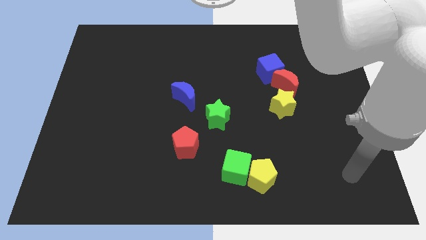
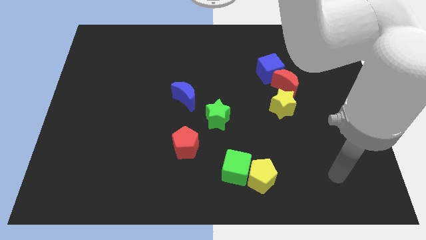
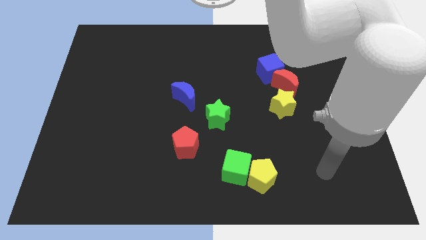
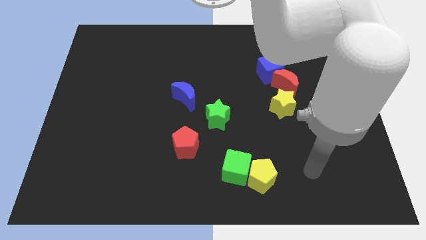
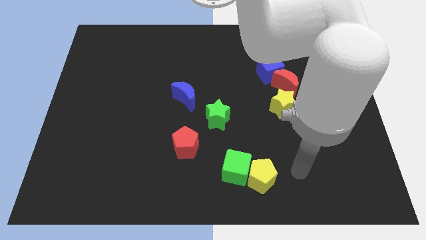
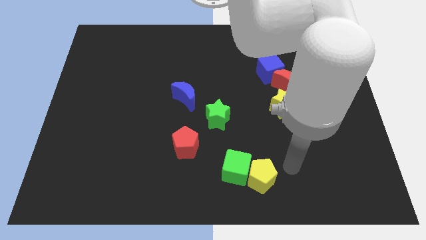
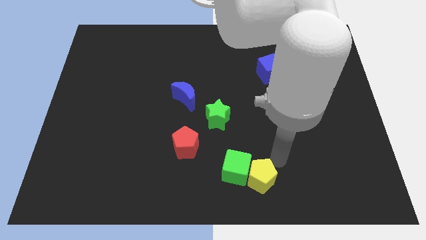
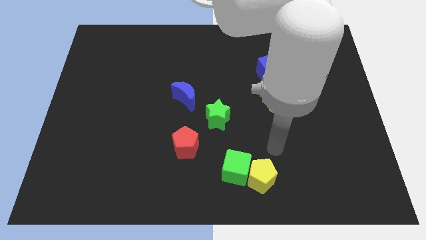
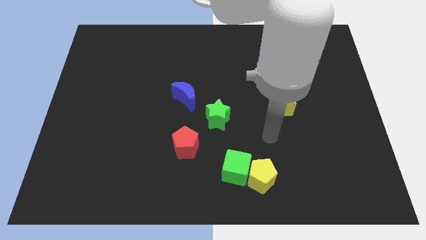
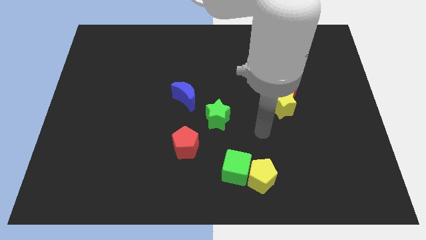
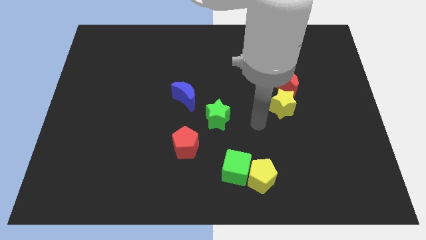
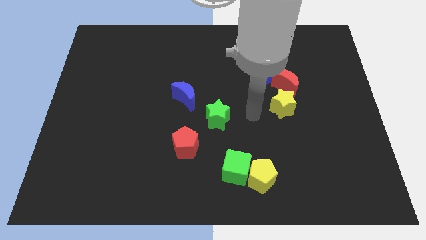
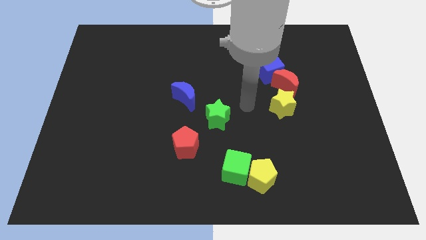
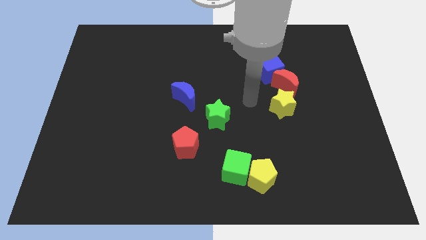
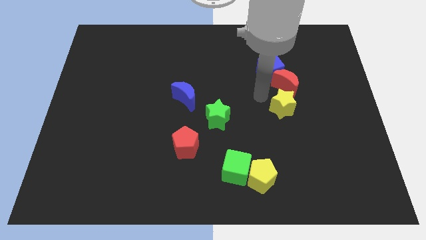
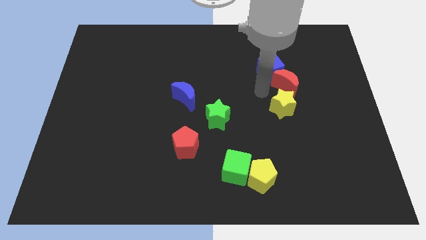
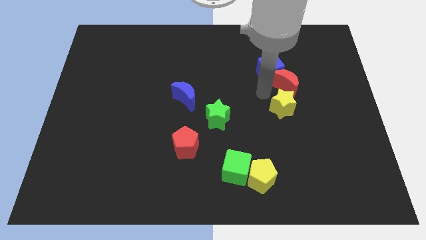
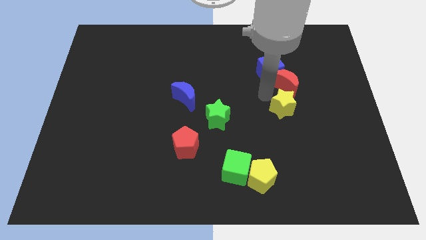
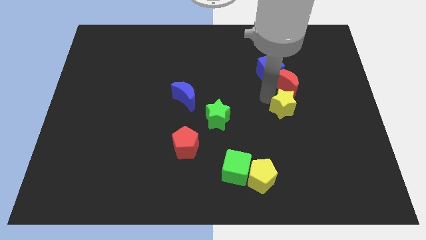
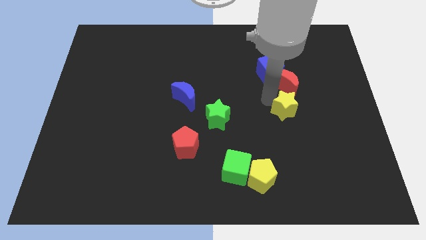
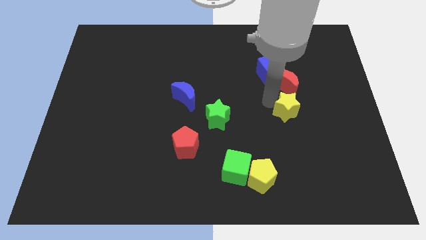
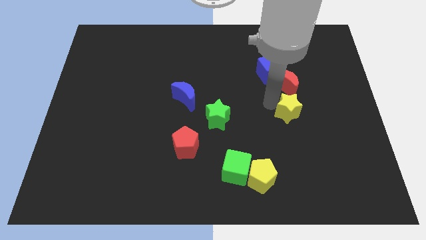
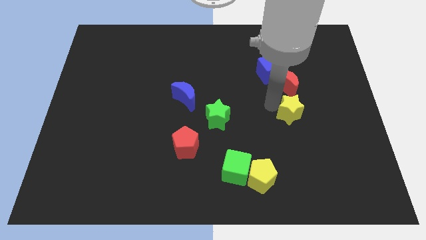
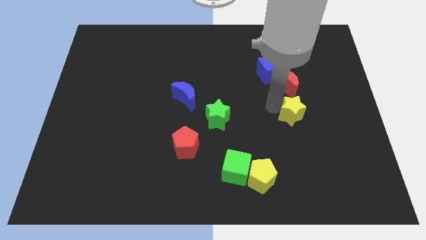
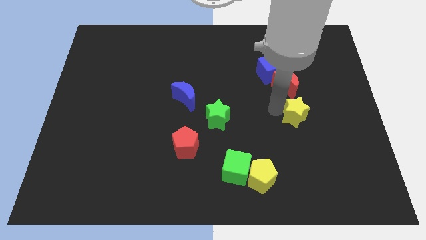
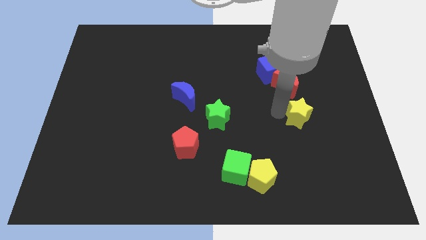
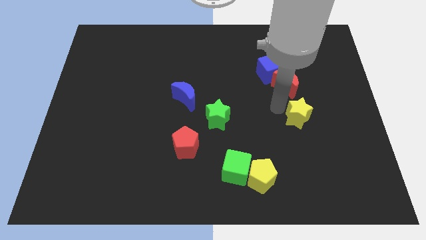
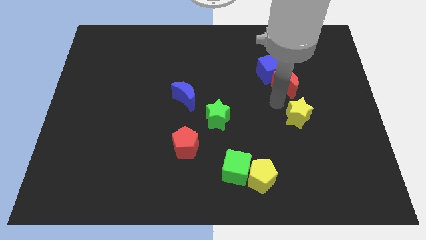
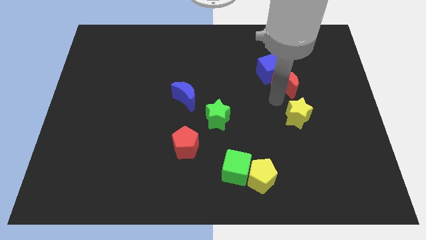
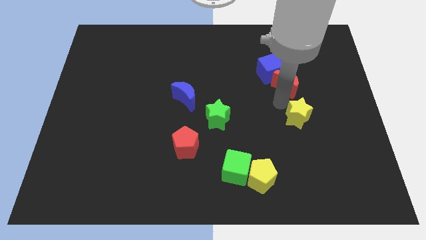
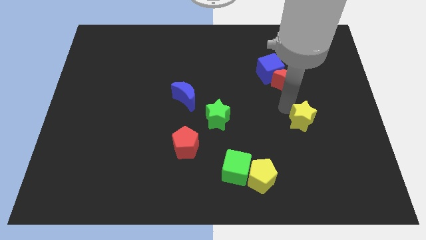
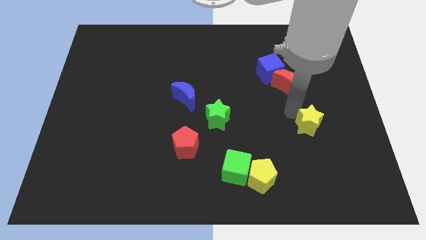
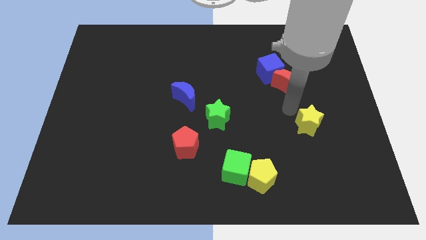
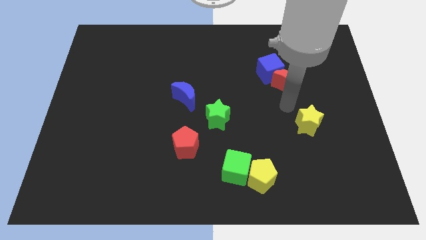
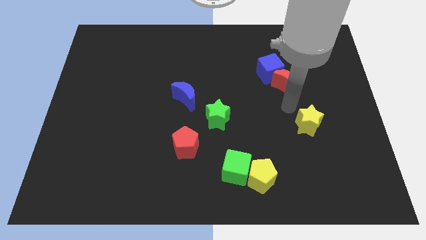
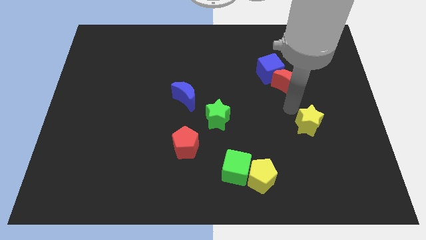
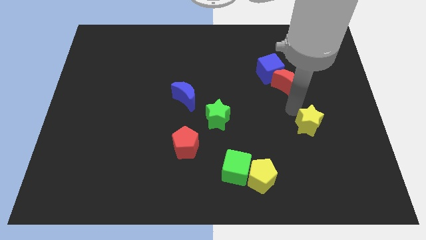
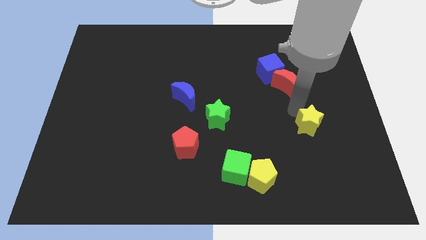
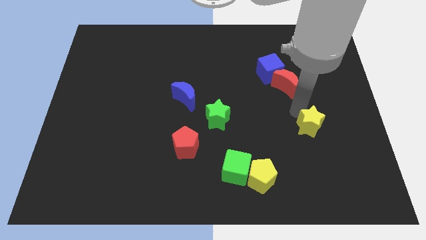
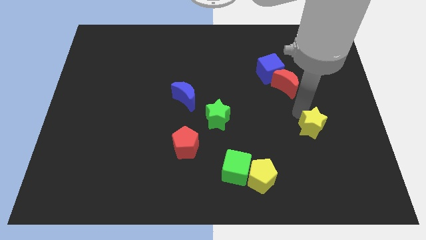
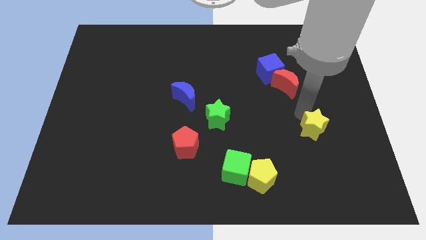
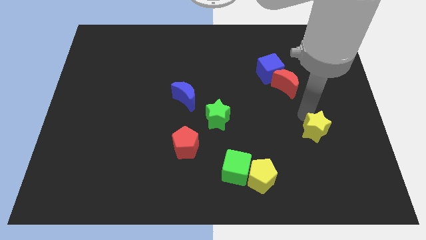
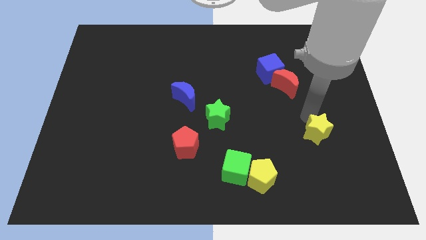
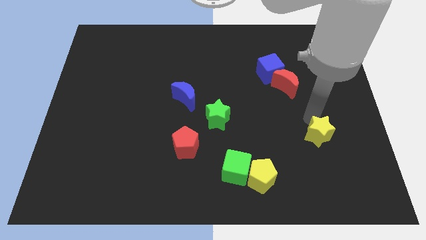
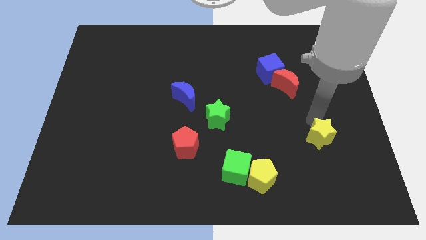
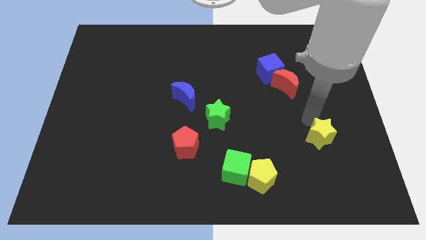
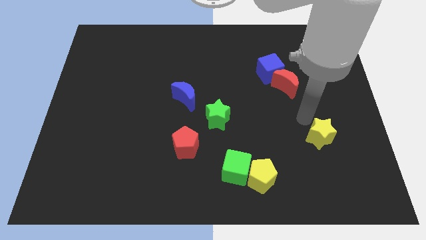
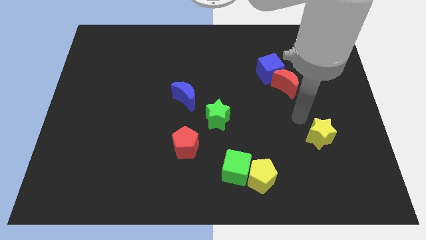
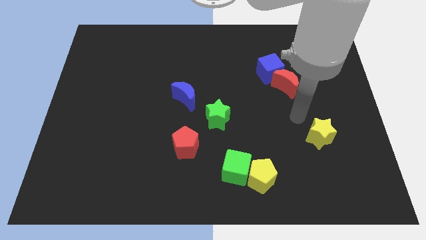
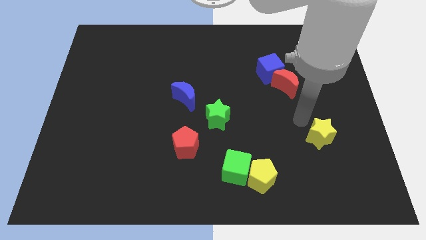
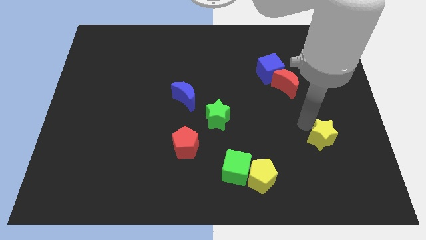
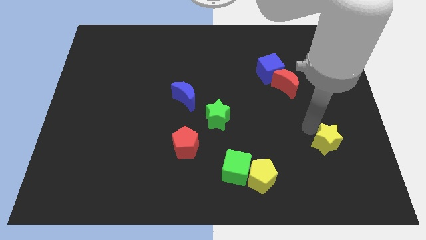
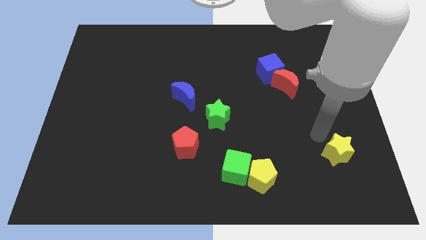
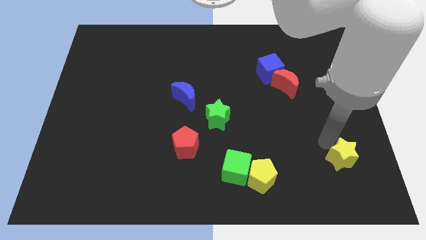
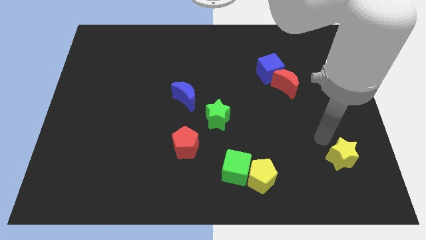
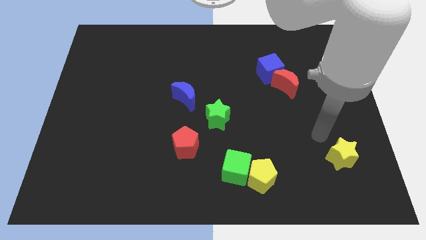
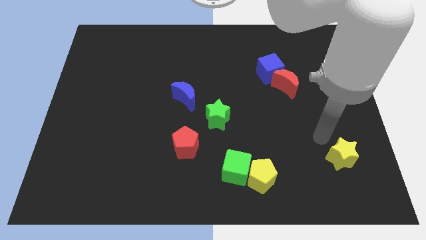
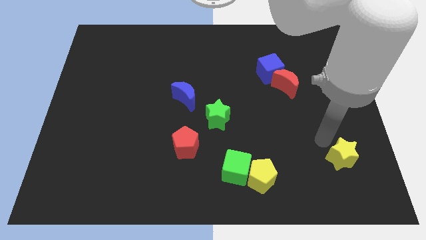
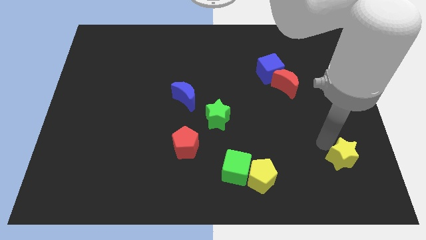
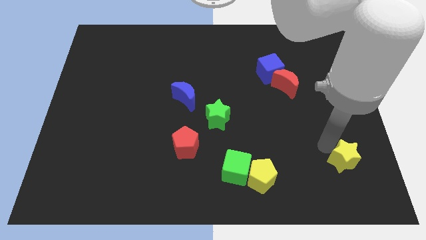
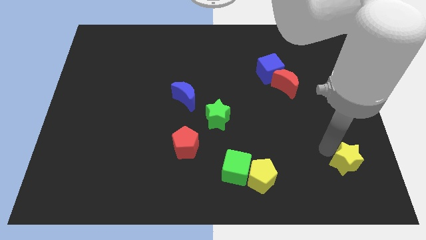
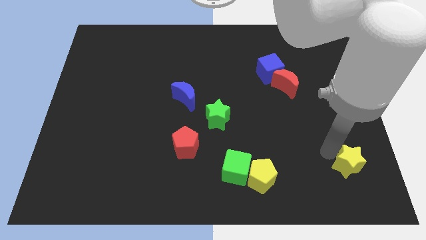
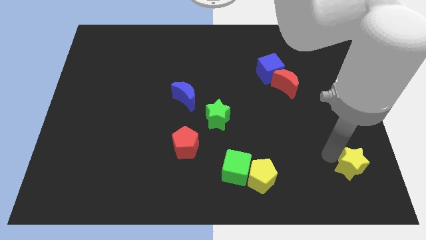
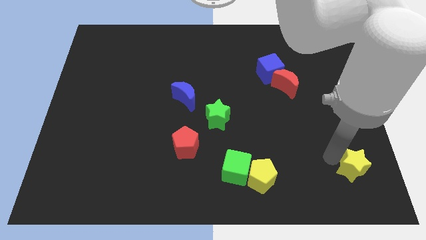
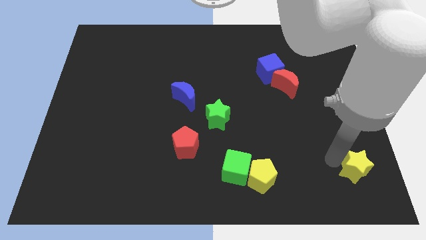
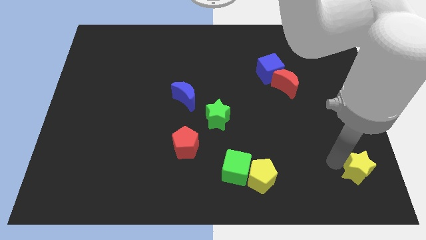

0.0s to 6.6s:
move the yellow star to the lower right corner

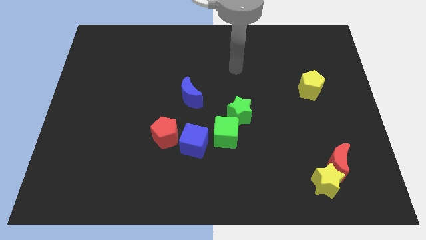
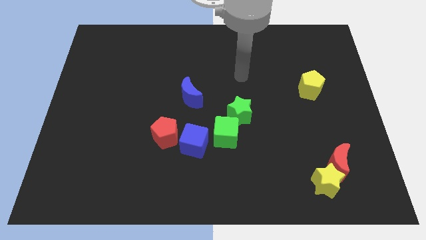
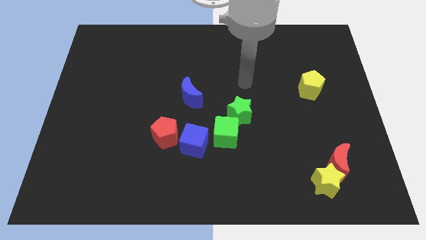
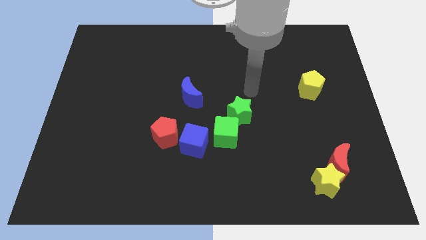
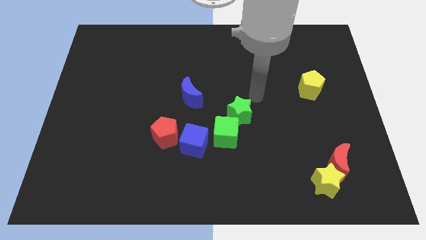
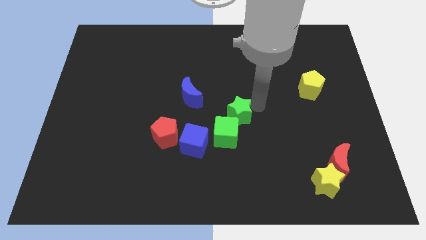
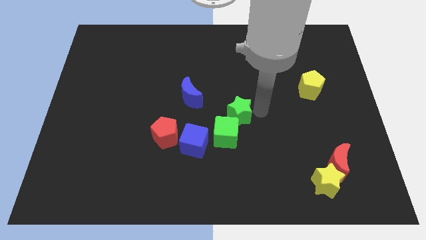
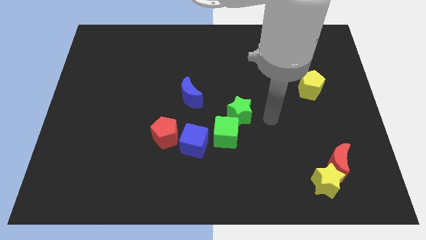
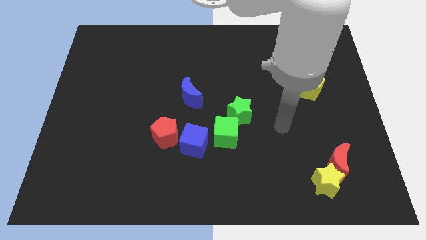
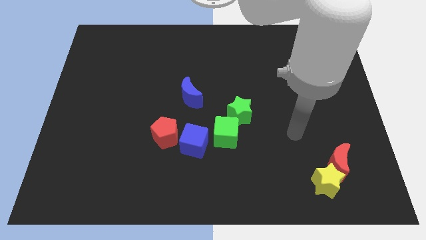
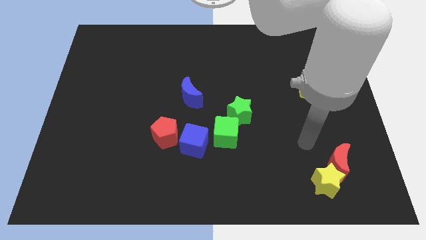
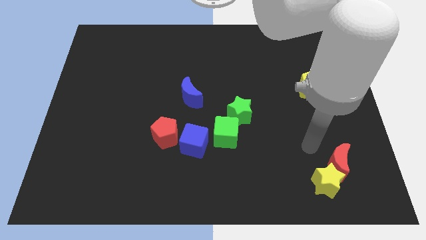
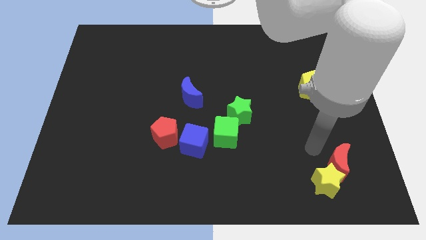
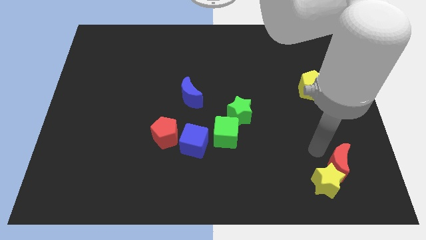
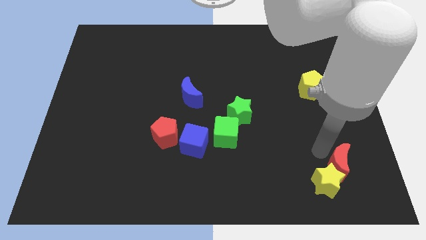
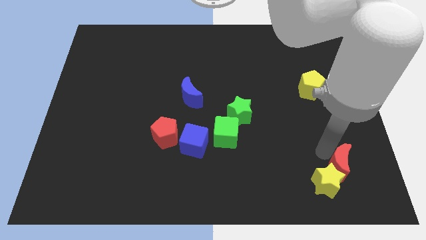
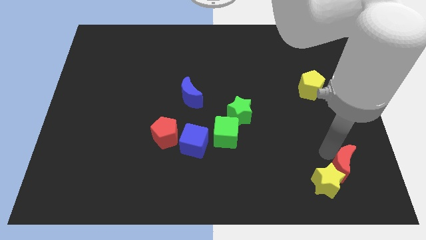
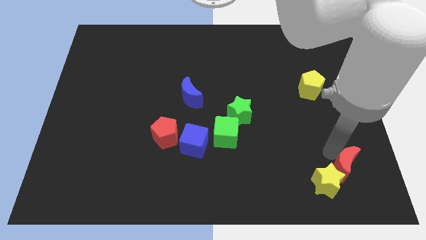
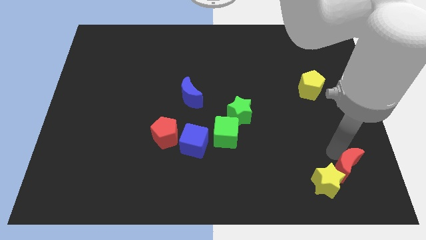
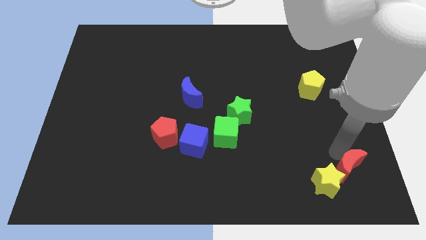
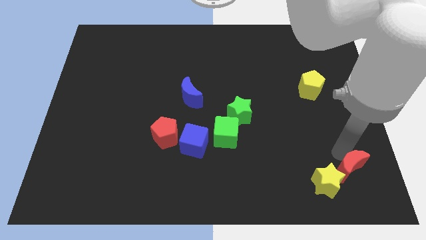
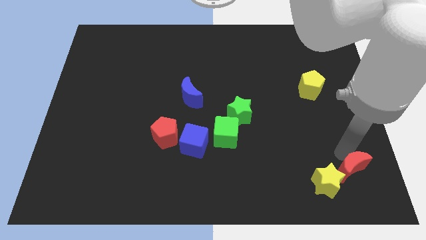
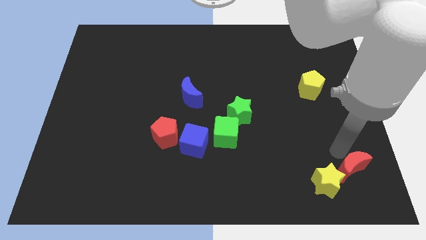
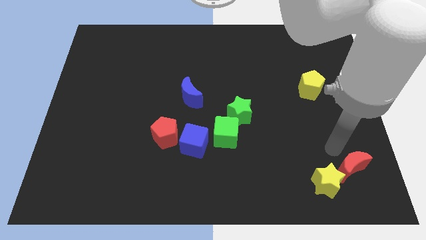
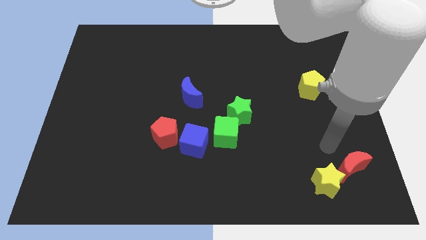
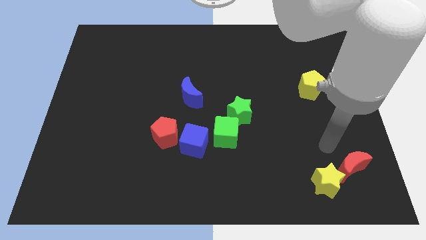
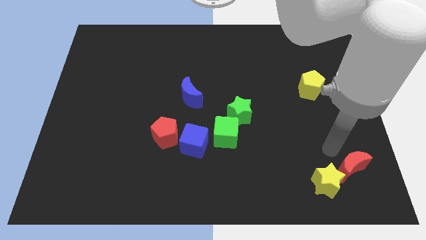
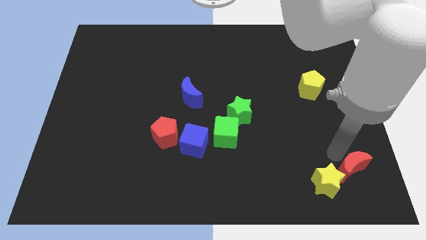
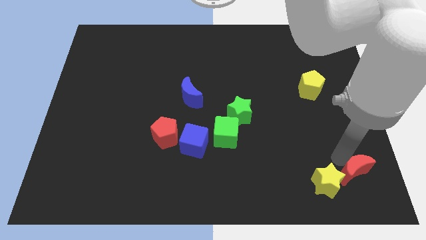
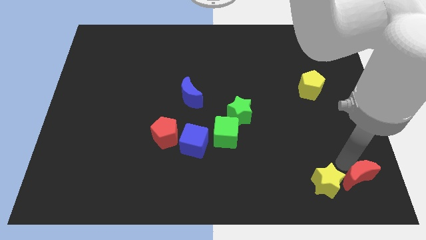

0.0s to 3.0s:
slide the red moon to the bottom right of the board
